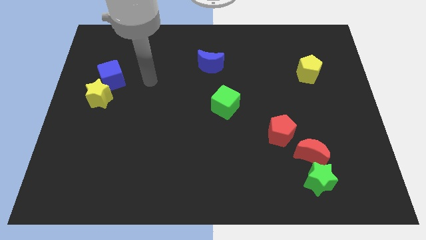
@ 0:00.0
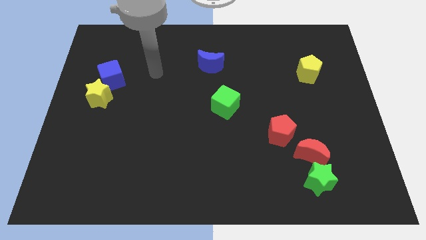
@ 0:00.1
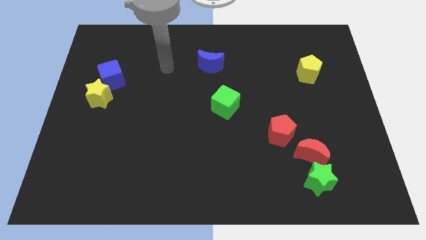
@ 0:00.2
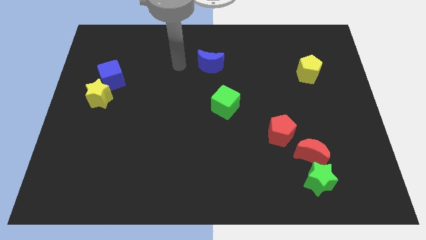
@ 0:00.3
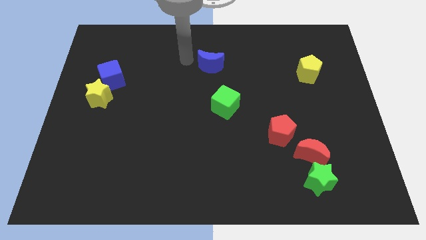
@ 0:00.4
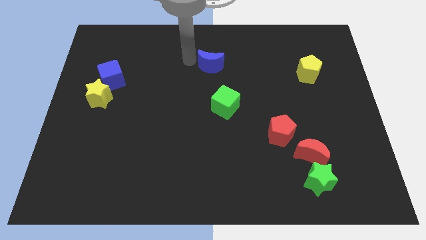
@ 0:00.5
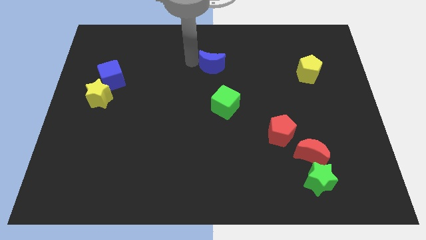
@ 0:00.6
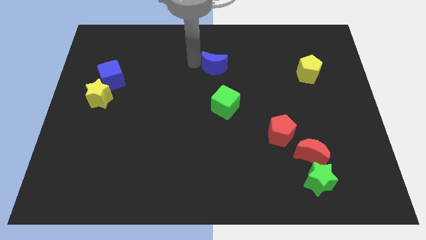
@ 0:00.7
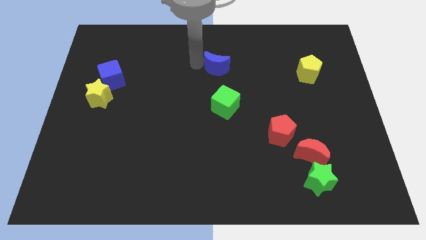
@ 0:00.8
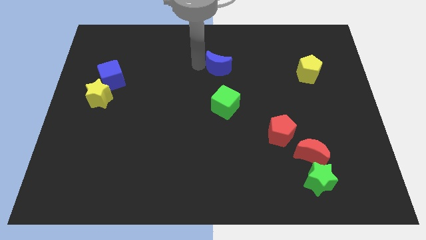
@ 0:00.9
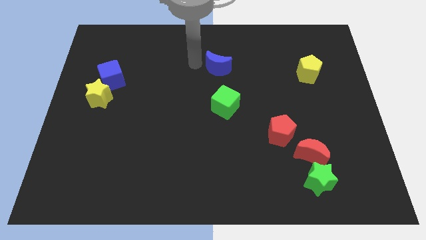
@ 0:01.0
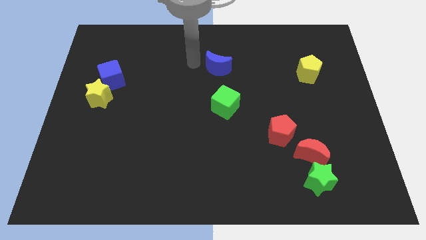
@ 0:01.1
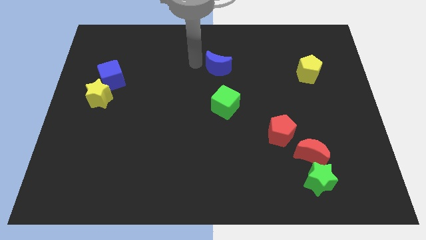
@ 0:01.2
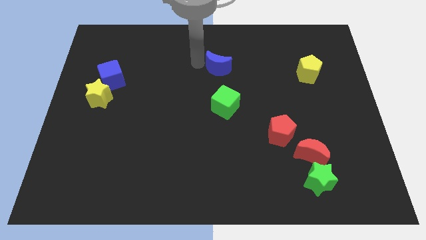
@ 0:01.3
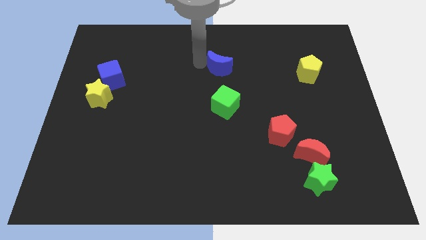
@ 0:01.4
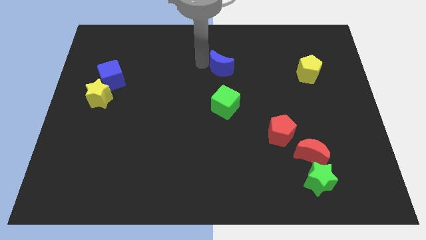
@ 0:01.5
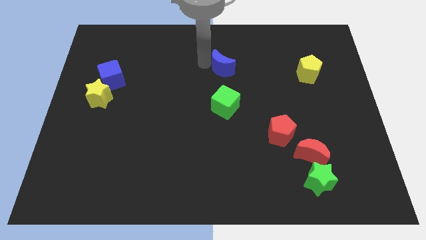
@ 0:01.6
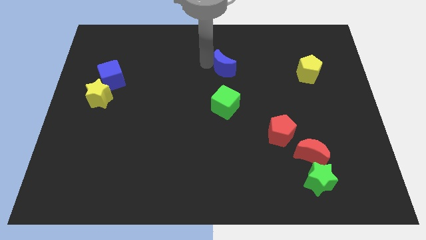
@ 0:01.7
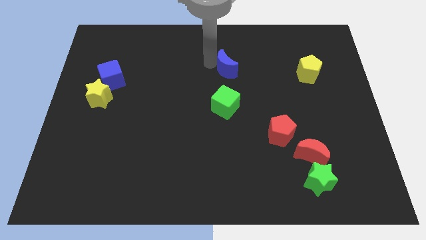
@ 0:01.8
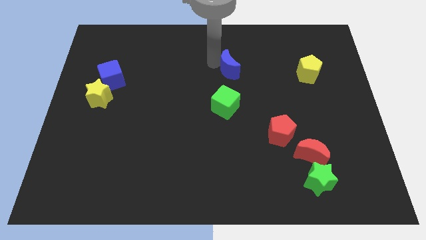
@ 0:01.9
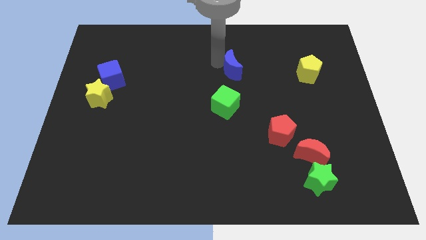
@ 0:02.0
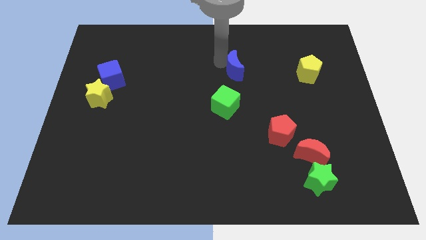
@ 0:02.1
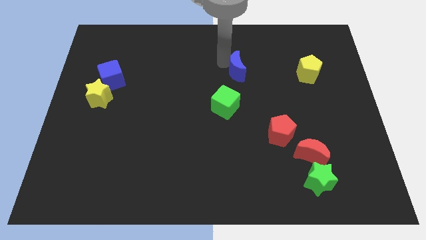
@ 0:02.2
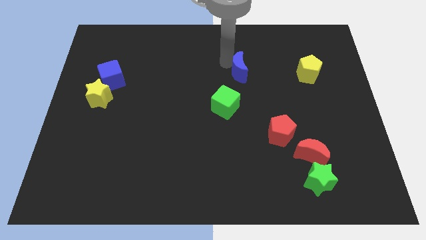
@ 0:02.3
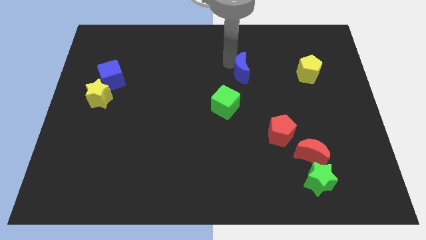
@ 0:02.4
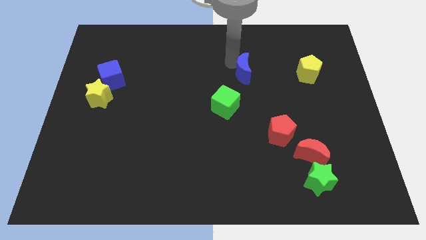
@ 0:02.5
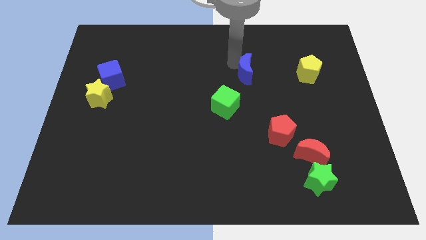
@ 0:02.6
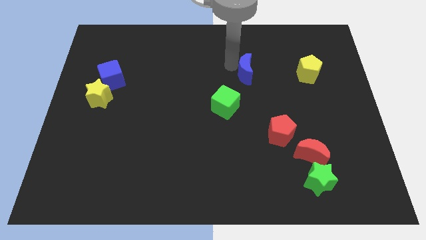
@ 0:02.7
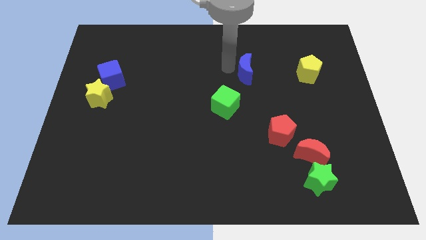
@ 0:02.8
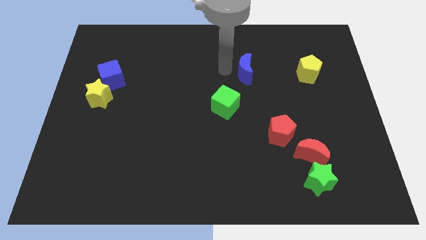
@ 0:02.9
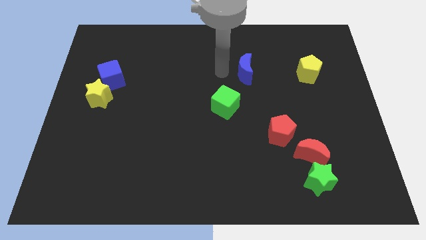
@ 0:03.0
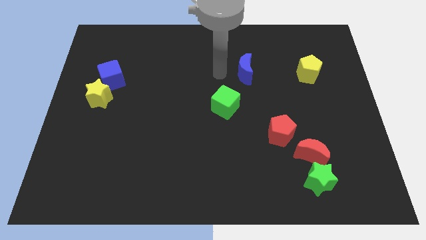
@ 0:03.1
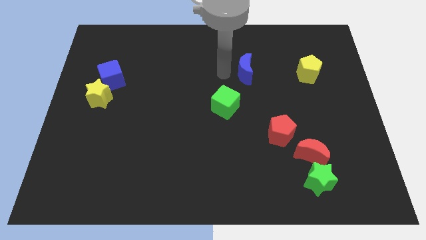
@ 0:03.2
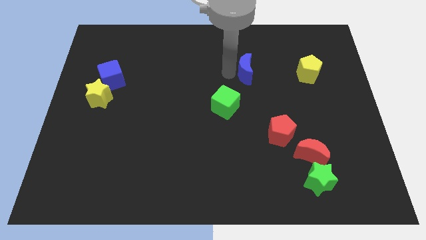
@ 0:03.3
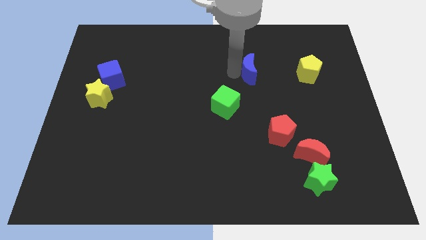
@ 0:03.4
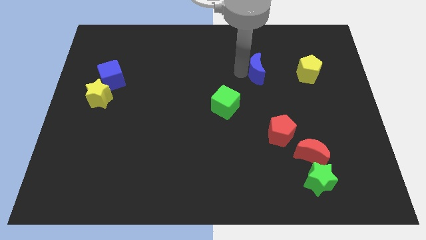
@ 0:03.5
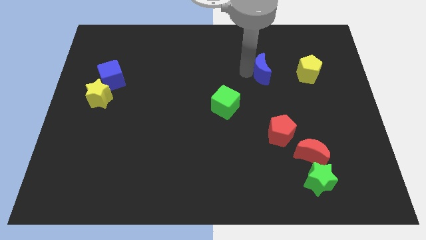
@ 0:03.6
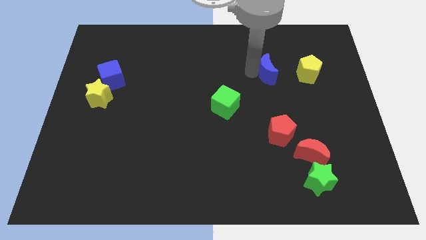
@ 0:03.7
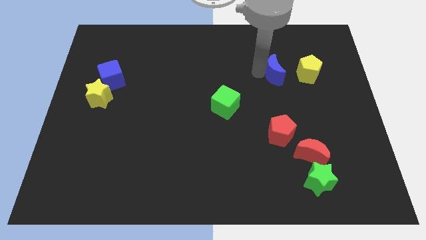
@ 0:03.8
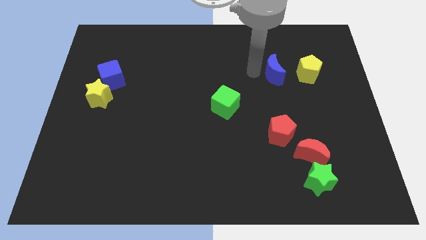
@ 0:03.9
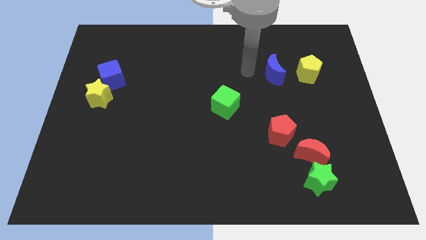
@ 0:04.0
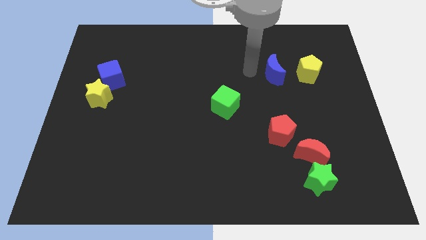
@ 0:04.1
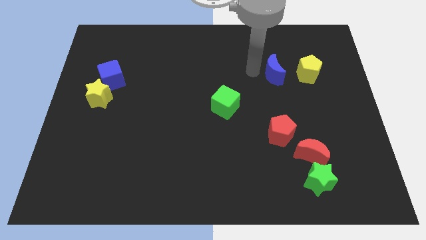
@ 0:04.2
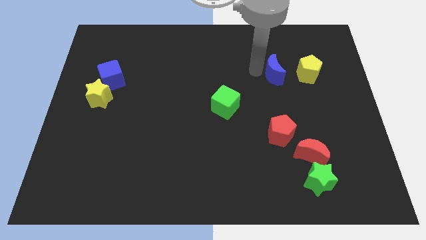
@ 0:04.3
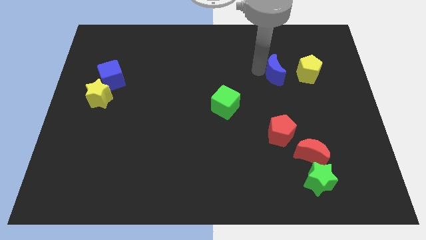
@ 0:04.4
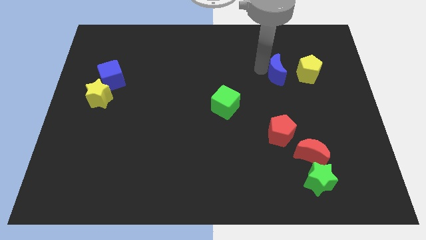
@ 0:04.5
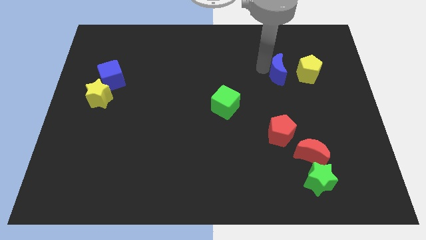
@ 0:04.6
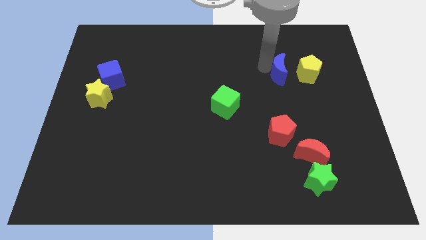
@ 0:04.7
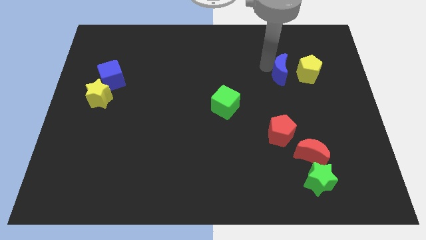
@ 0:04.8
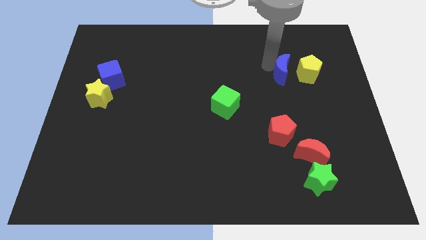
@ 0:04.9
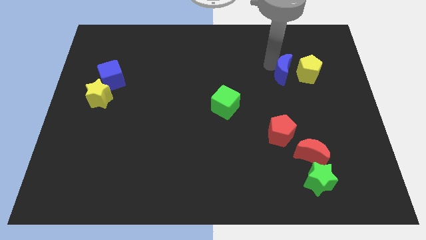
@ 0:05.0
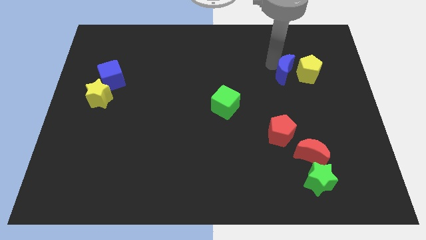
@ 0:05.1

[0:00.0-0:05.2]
slide the blue moon next to the yellow pentagon

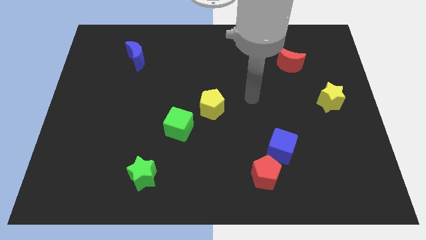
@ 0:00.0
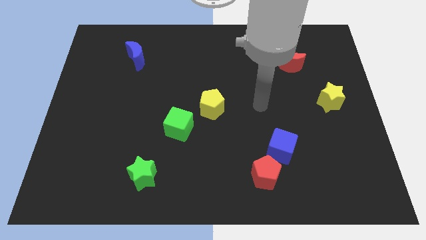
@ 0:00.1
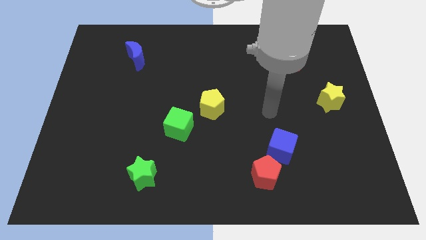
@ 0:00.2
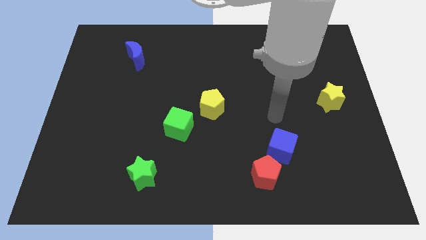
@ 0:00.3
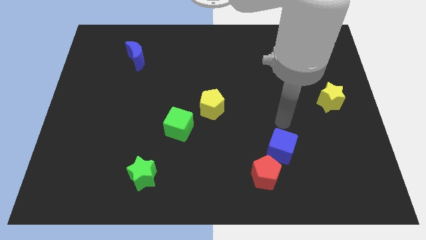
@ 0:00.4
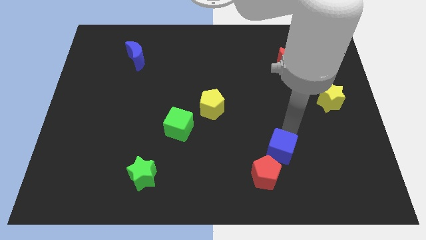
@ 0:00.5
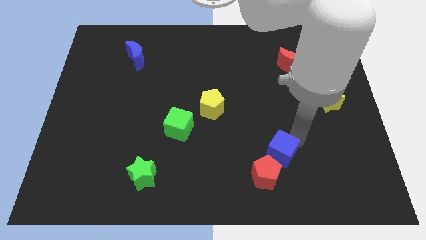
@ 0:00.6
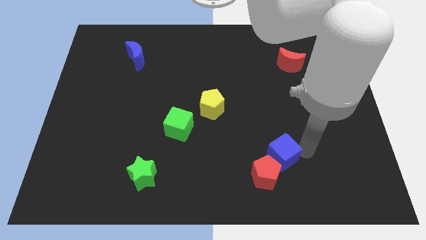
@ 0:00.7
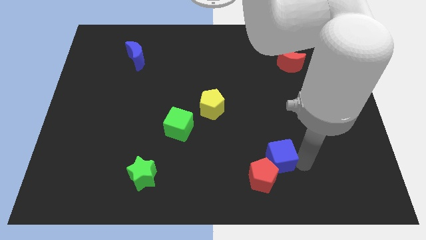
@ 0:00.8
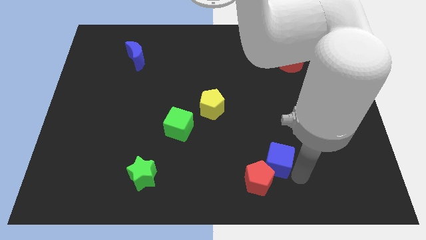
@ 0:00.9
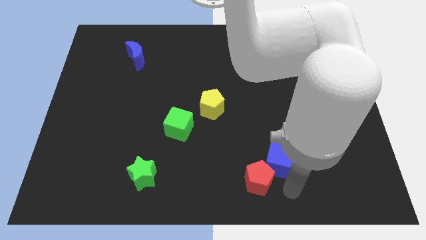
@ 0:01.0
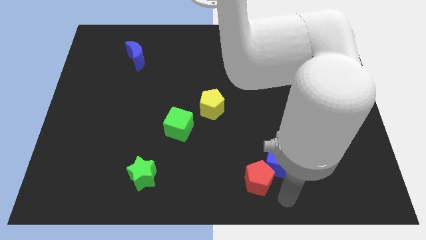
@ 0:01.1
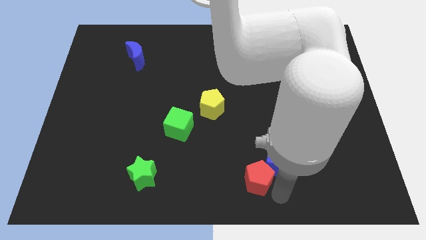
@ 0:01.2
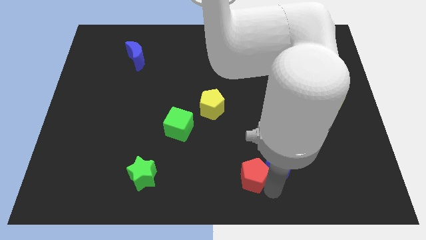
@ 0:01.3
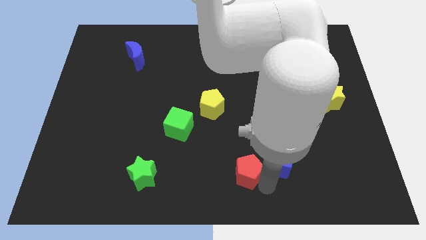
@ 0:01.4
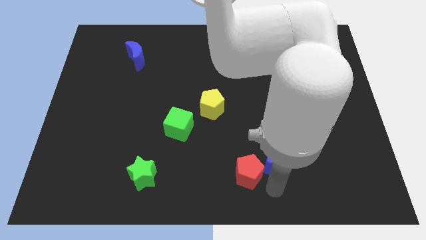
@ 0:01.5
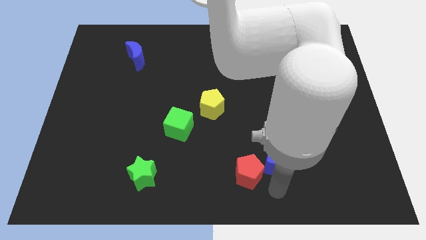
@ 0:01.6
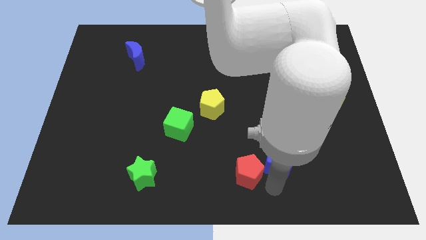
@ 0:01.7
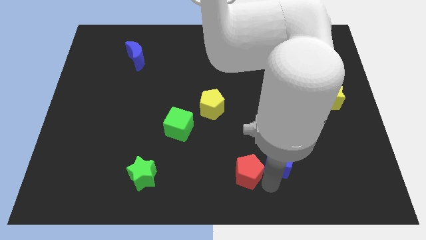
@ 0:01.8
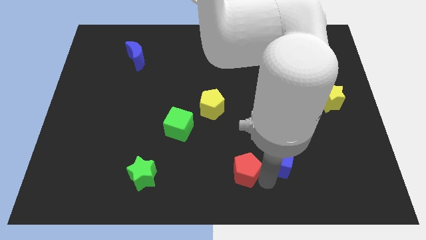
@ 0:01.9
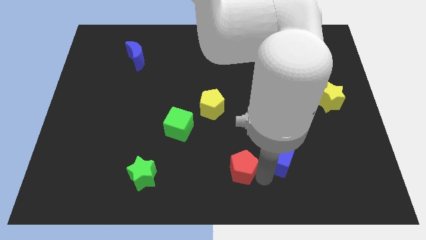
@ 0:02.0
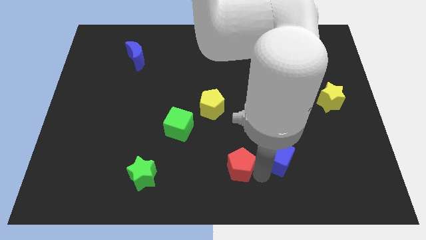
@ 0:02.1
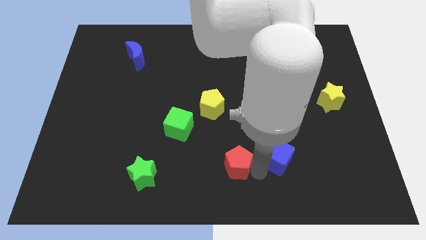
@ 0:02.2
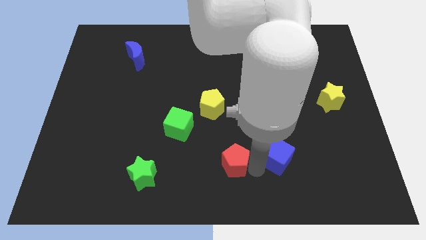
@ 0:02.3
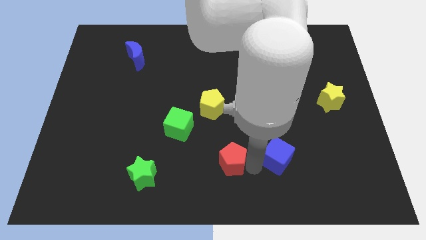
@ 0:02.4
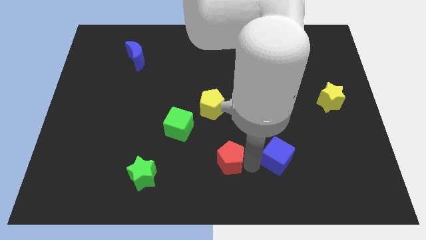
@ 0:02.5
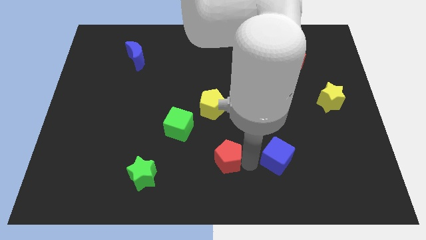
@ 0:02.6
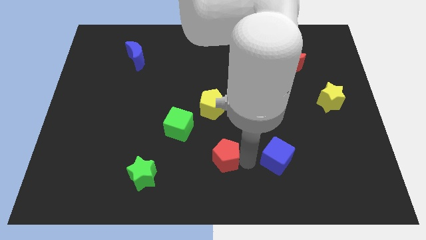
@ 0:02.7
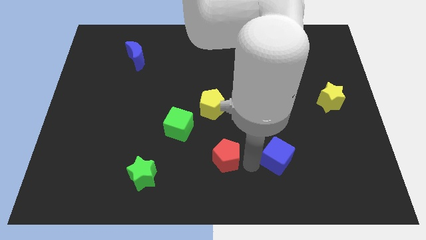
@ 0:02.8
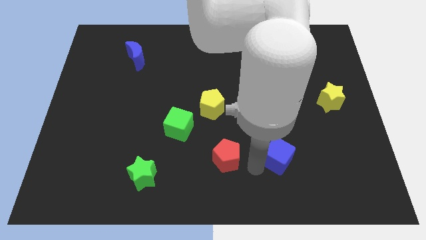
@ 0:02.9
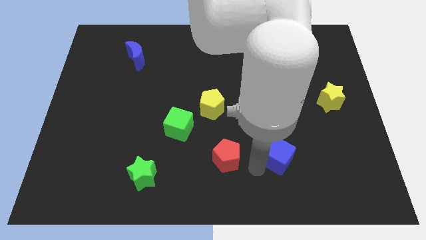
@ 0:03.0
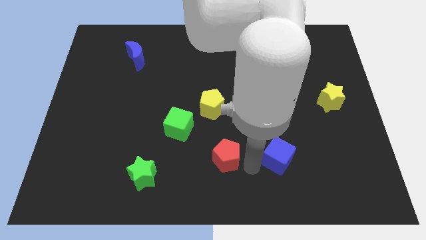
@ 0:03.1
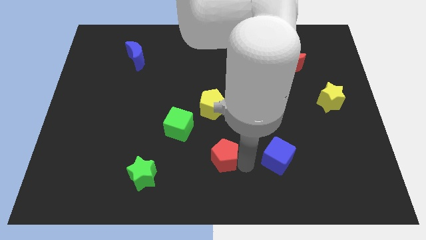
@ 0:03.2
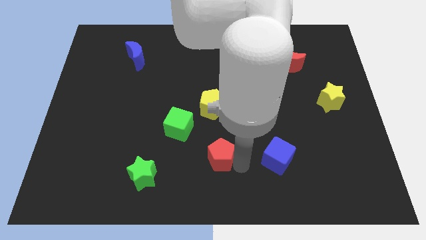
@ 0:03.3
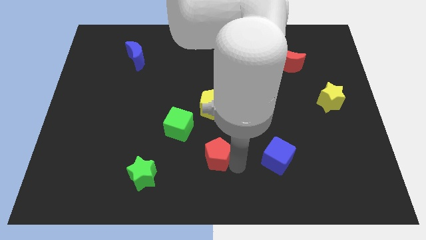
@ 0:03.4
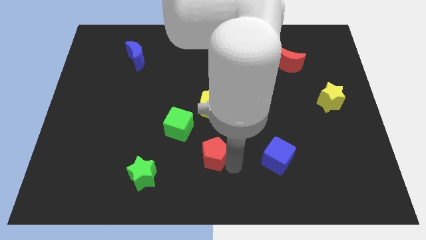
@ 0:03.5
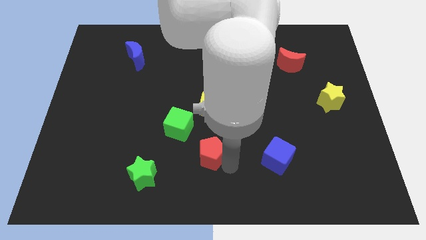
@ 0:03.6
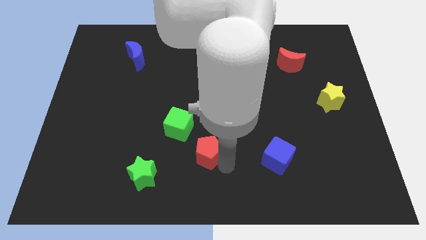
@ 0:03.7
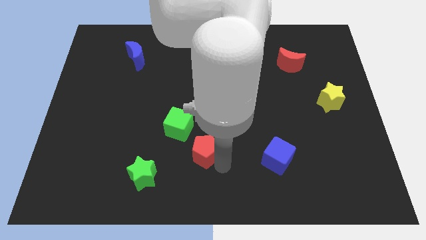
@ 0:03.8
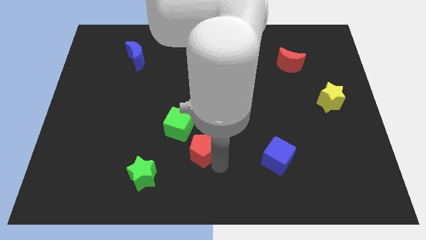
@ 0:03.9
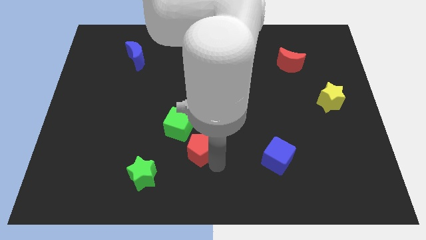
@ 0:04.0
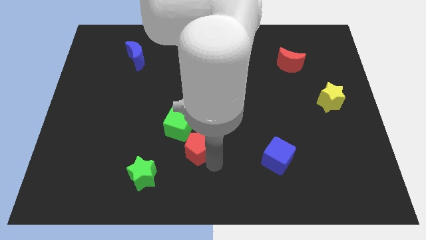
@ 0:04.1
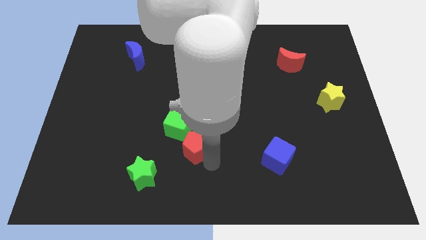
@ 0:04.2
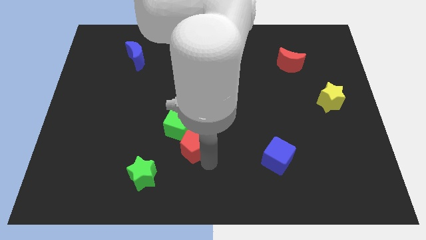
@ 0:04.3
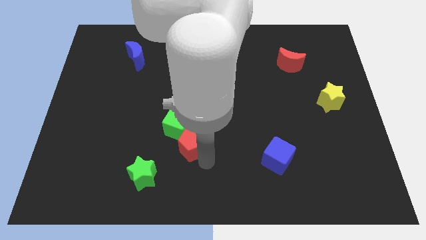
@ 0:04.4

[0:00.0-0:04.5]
push the red pentagon to the green cube
